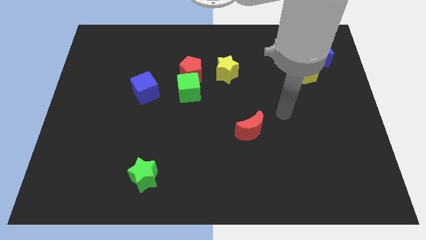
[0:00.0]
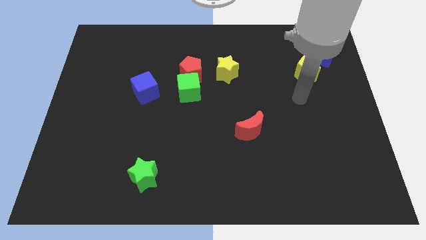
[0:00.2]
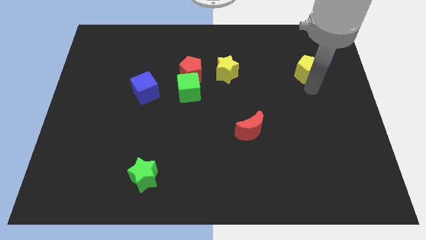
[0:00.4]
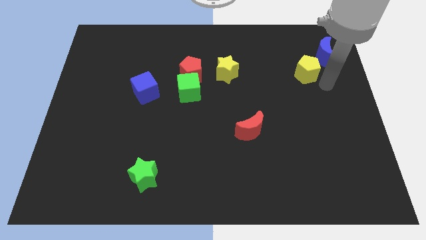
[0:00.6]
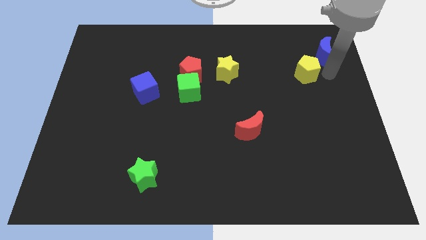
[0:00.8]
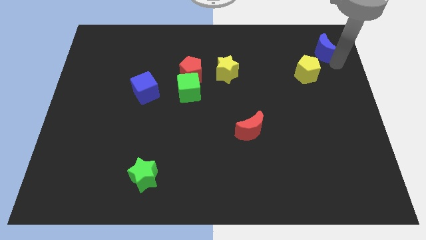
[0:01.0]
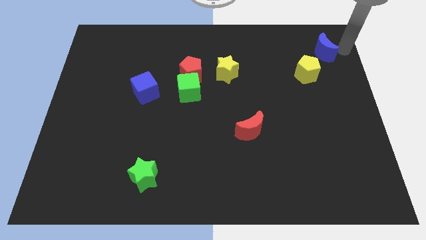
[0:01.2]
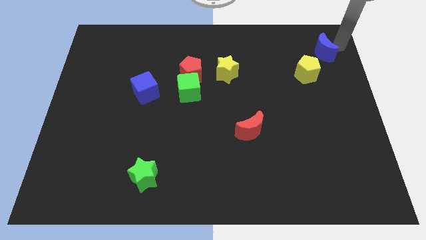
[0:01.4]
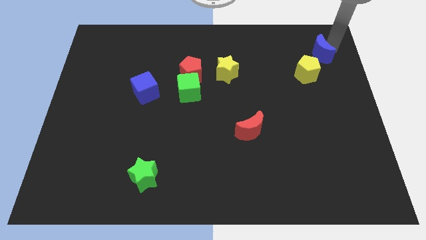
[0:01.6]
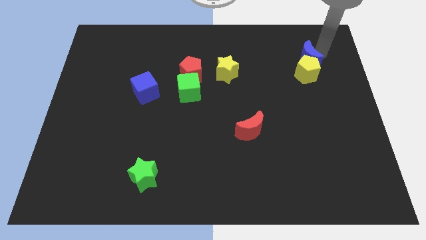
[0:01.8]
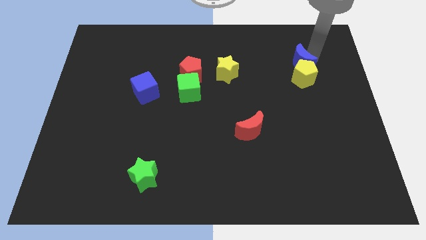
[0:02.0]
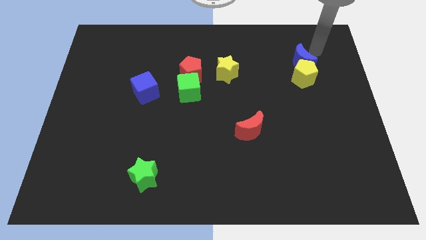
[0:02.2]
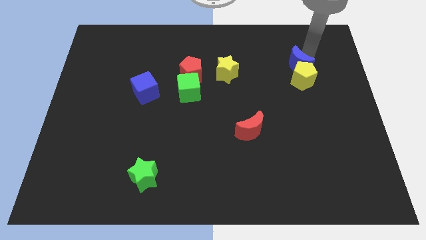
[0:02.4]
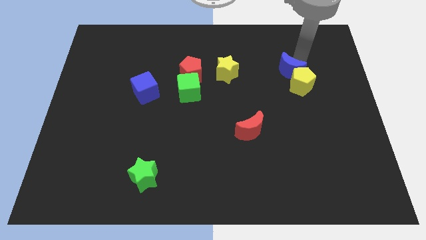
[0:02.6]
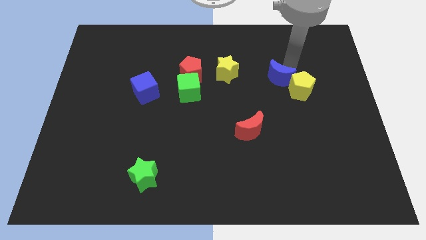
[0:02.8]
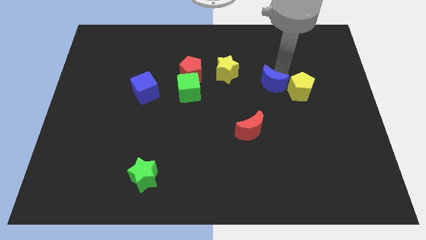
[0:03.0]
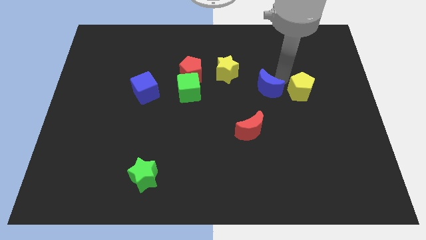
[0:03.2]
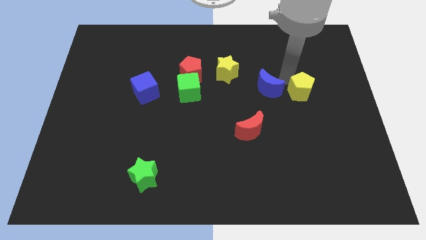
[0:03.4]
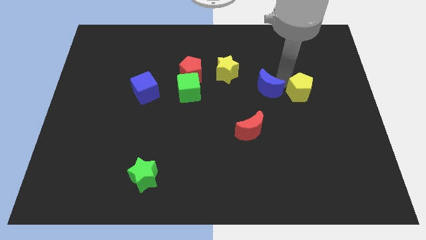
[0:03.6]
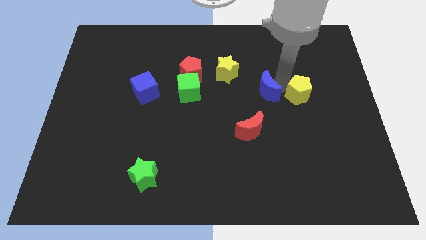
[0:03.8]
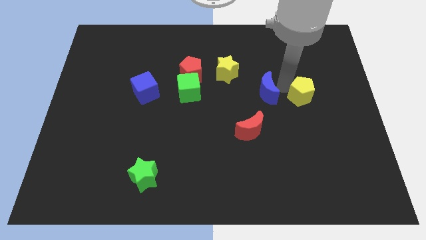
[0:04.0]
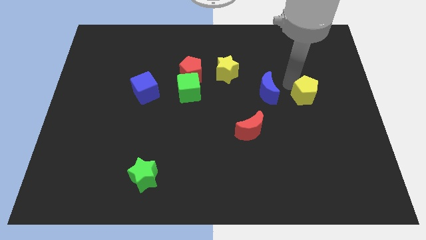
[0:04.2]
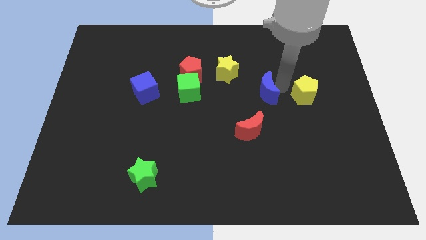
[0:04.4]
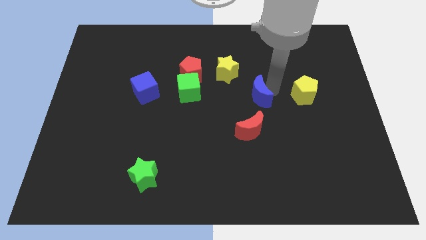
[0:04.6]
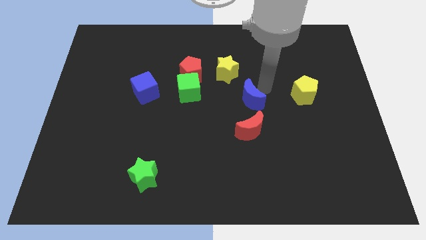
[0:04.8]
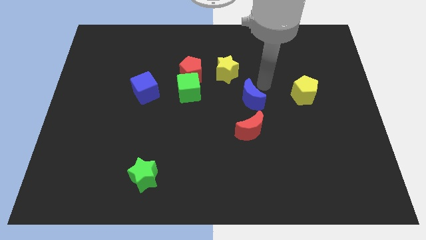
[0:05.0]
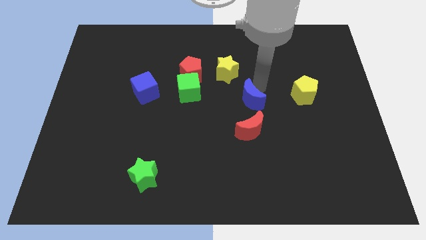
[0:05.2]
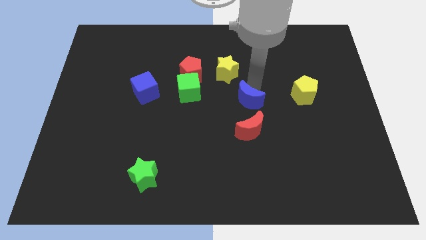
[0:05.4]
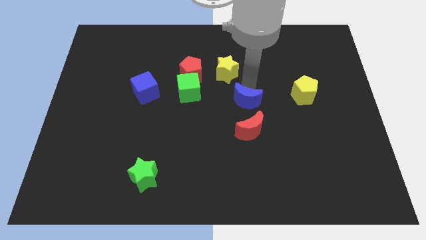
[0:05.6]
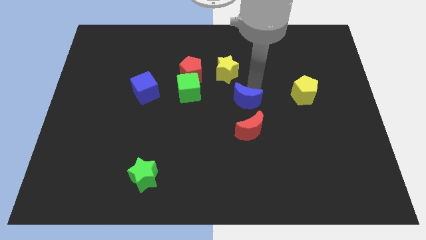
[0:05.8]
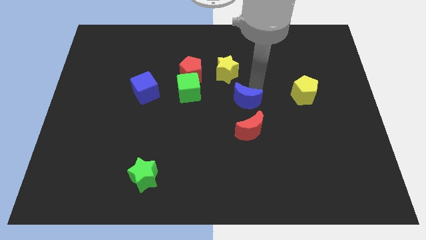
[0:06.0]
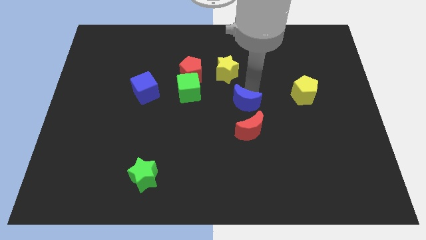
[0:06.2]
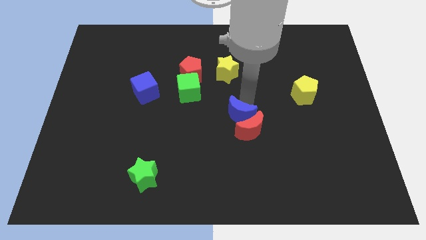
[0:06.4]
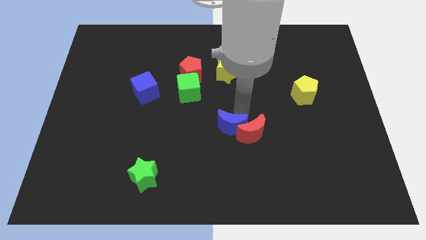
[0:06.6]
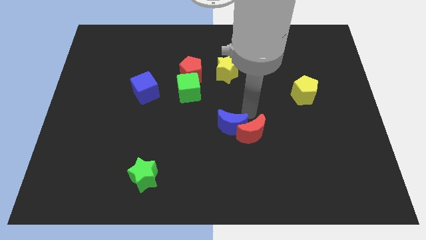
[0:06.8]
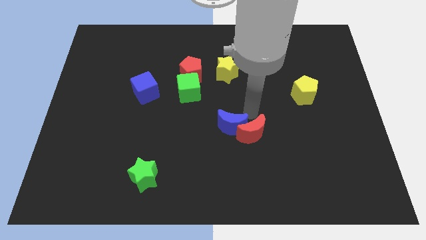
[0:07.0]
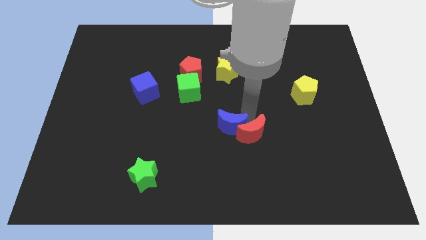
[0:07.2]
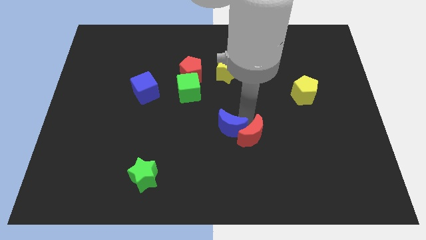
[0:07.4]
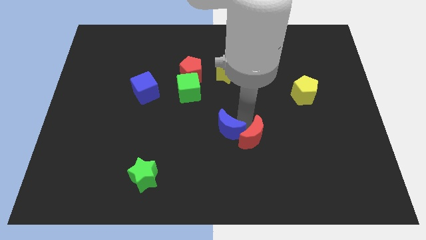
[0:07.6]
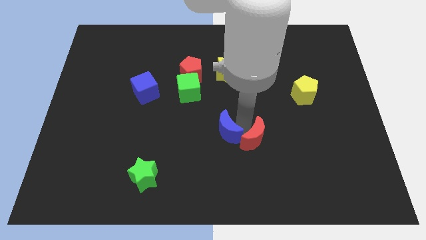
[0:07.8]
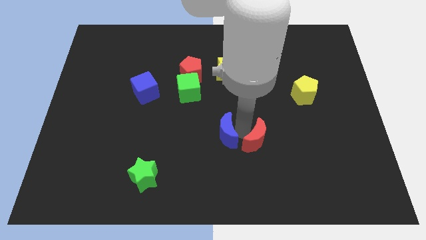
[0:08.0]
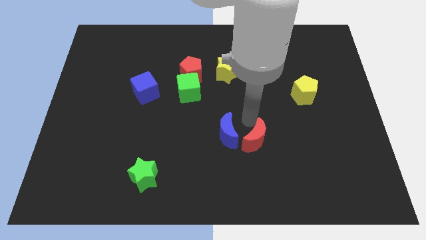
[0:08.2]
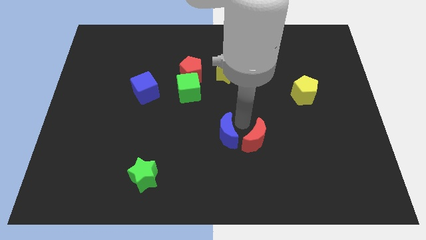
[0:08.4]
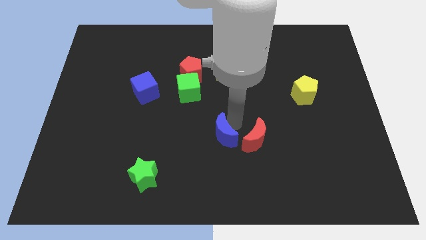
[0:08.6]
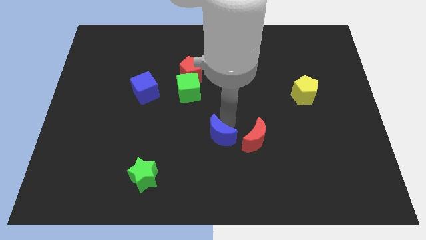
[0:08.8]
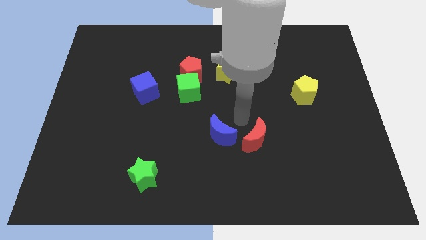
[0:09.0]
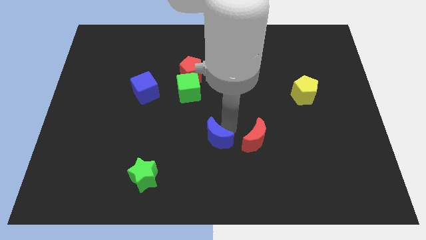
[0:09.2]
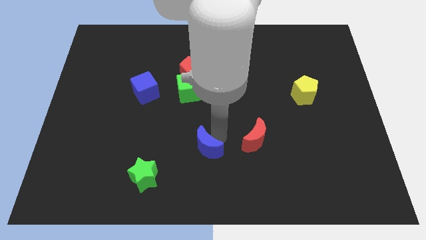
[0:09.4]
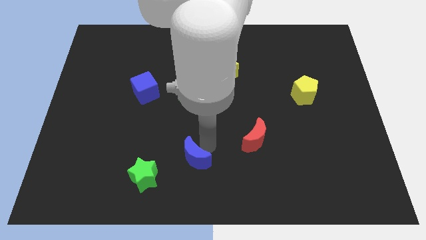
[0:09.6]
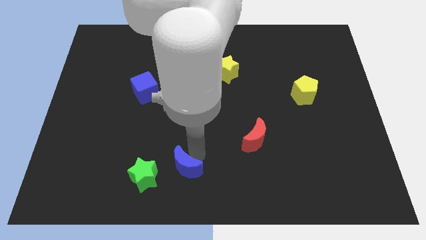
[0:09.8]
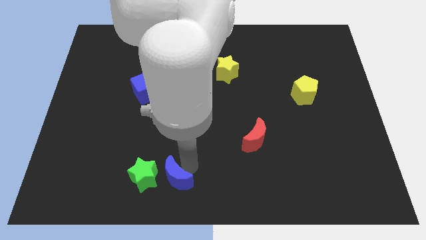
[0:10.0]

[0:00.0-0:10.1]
put the blue moon towards the green star

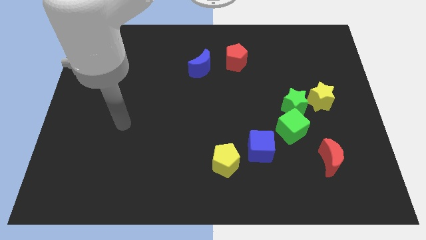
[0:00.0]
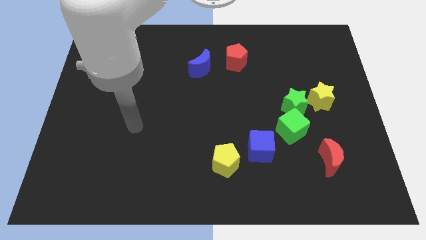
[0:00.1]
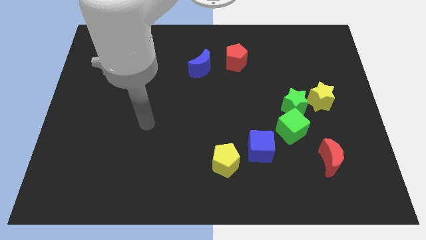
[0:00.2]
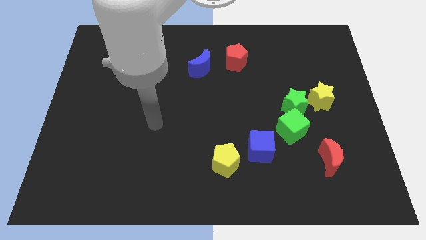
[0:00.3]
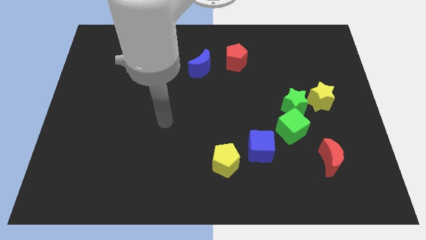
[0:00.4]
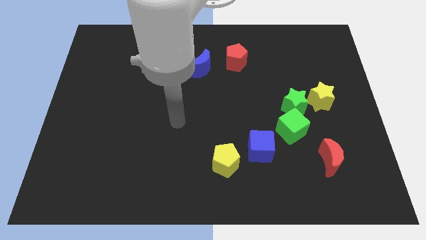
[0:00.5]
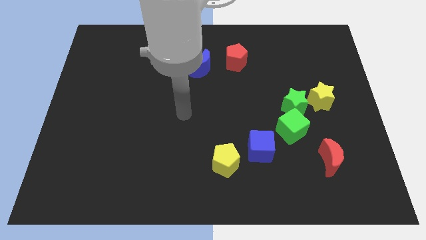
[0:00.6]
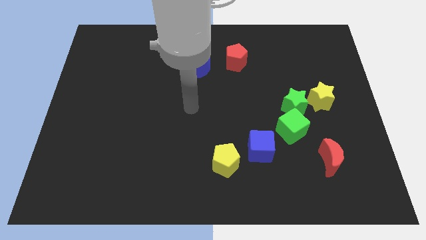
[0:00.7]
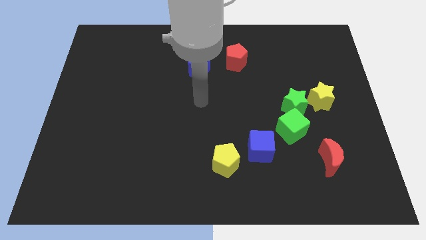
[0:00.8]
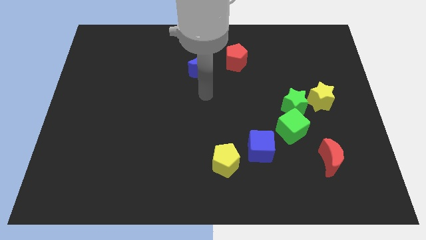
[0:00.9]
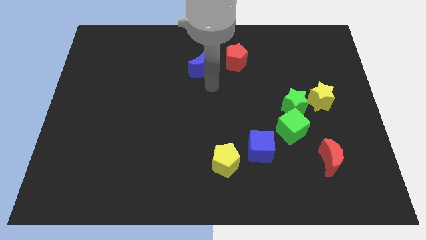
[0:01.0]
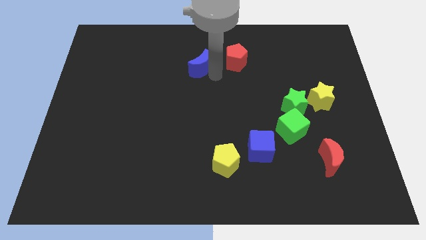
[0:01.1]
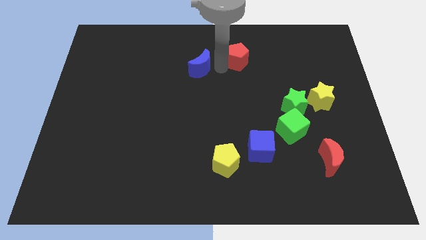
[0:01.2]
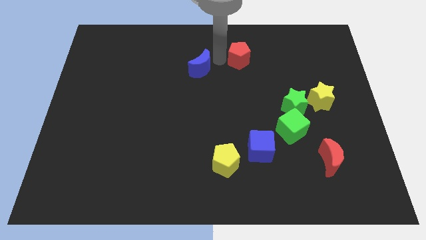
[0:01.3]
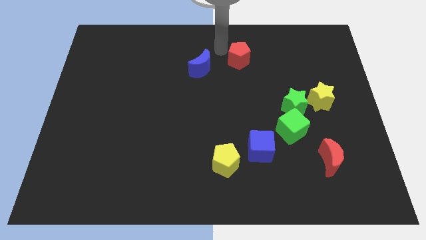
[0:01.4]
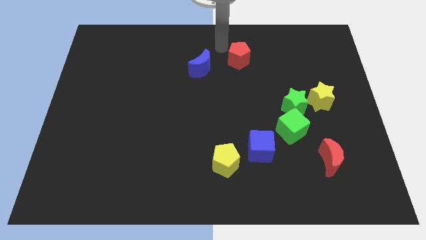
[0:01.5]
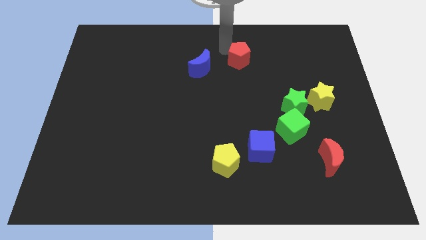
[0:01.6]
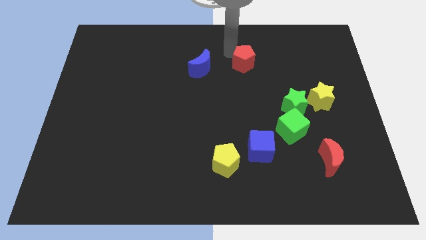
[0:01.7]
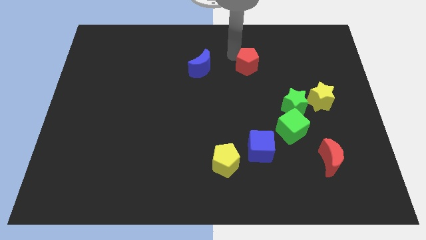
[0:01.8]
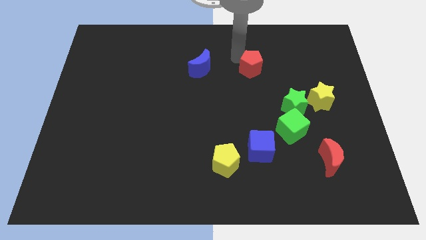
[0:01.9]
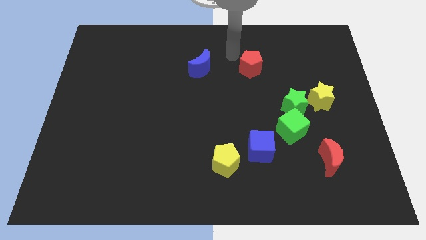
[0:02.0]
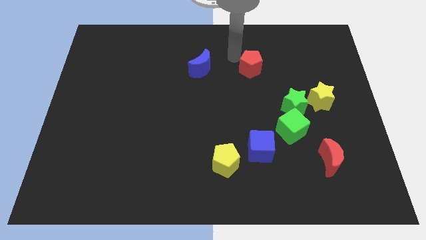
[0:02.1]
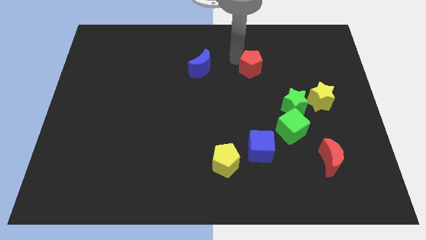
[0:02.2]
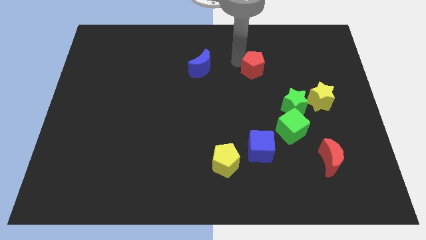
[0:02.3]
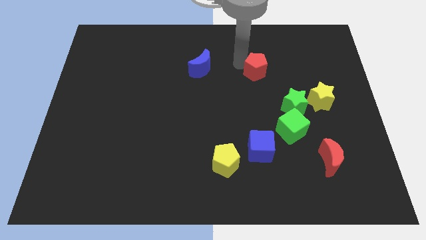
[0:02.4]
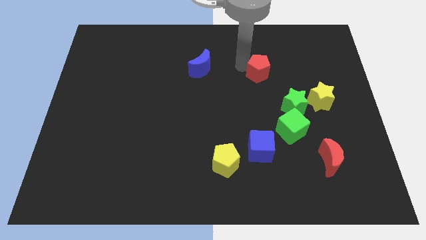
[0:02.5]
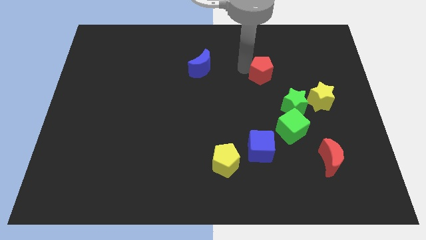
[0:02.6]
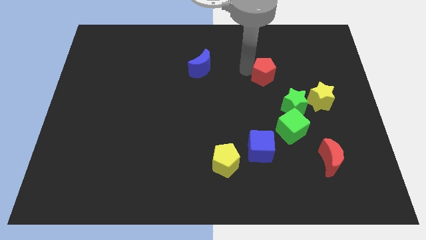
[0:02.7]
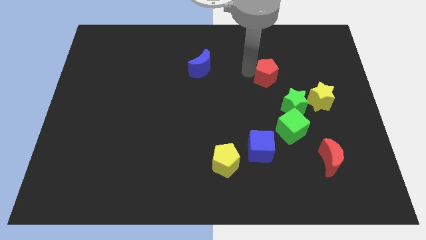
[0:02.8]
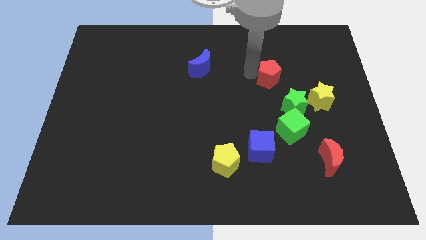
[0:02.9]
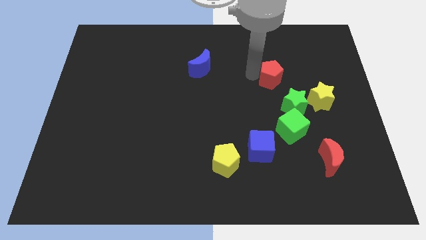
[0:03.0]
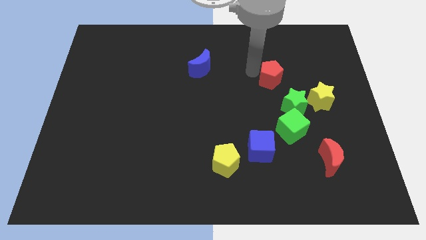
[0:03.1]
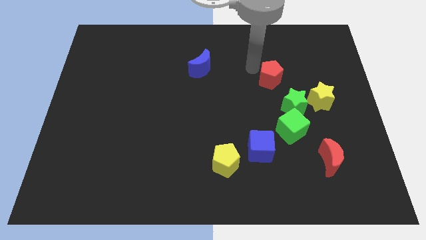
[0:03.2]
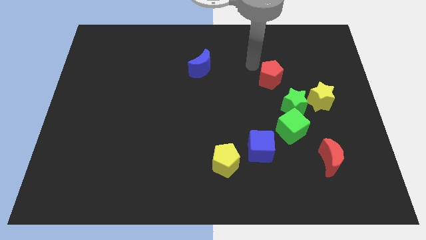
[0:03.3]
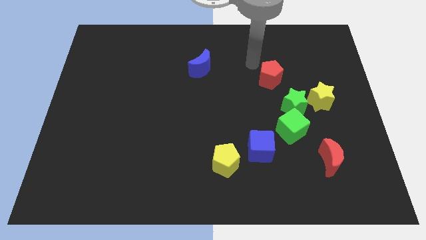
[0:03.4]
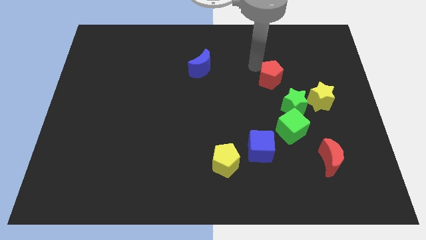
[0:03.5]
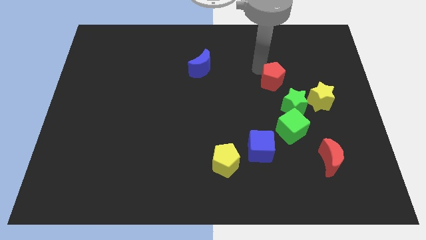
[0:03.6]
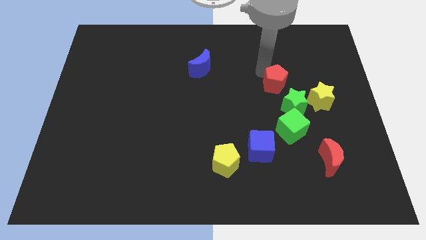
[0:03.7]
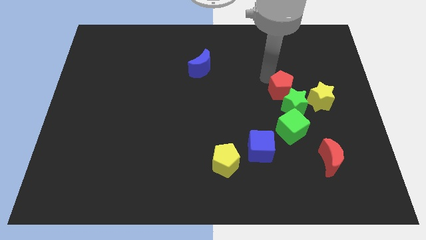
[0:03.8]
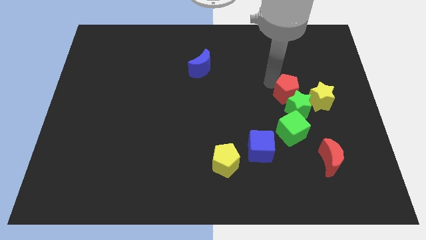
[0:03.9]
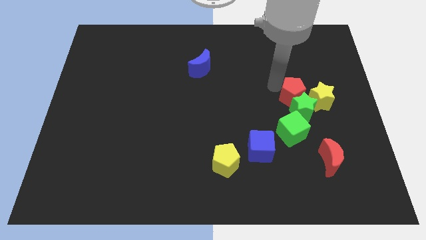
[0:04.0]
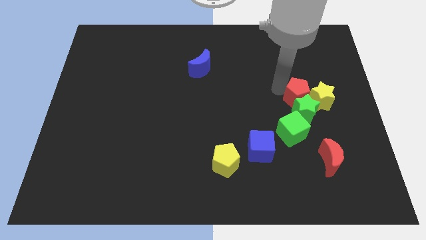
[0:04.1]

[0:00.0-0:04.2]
move the red pentagon close to the yellow star
